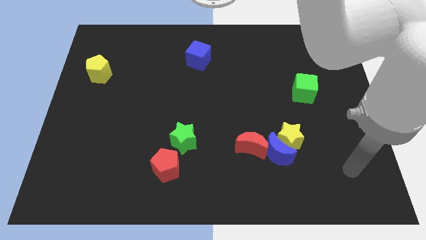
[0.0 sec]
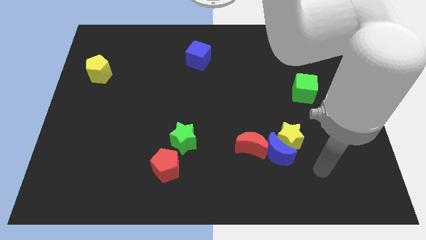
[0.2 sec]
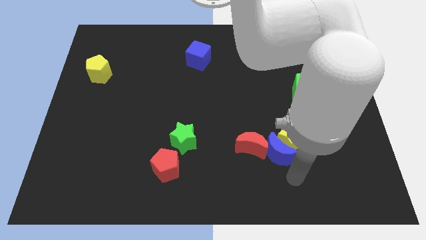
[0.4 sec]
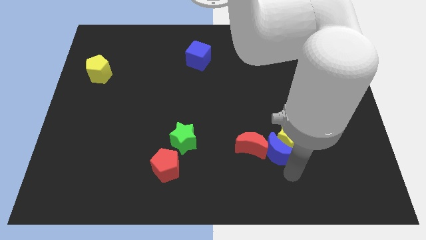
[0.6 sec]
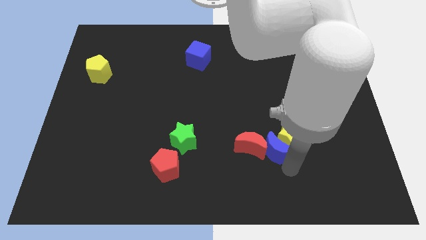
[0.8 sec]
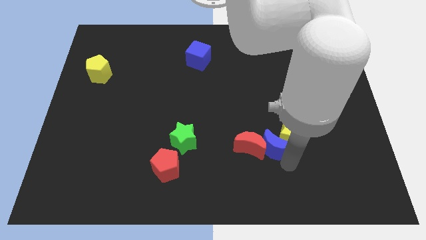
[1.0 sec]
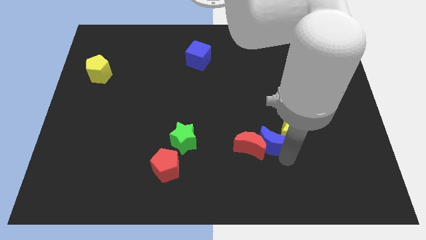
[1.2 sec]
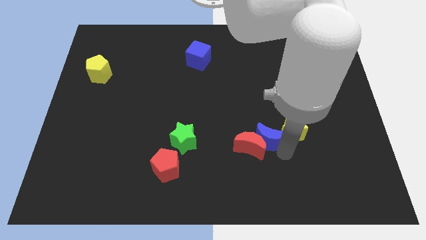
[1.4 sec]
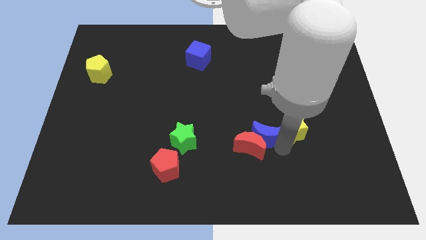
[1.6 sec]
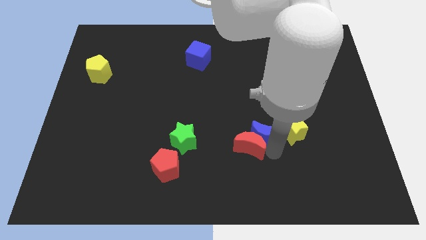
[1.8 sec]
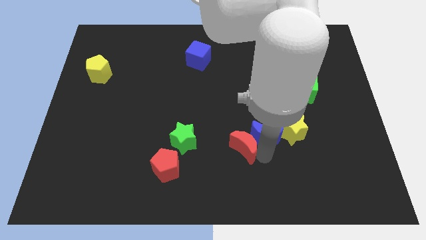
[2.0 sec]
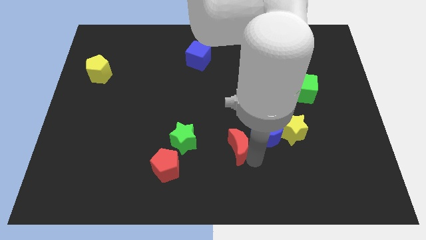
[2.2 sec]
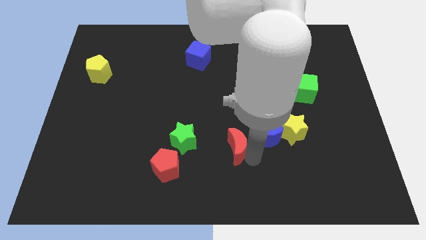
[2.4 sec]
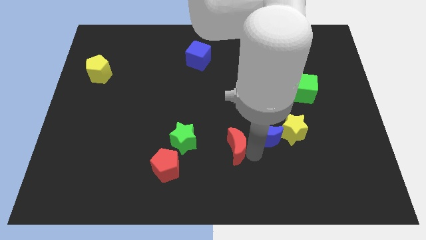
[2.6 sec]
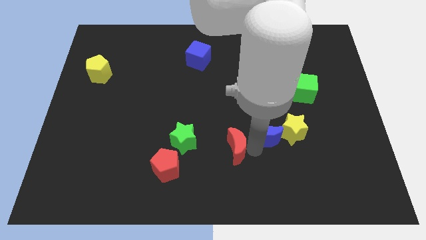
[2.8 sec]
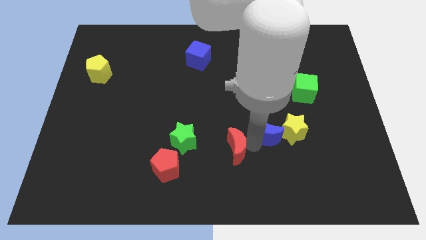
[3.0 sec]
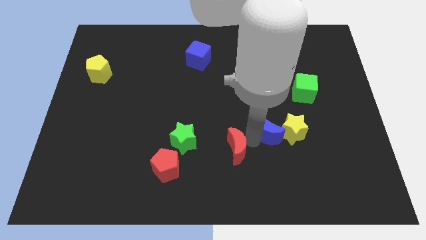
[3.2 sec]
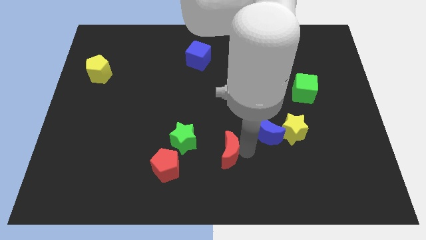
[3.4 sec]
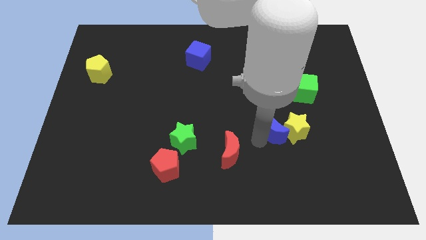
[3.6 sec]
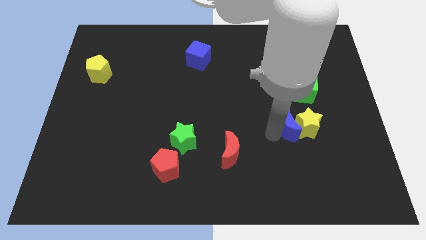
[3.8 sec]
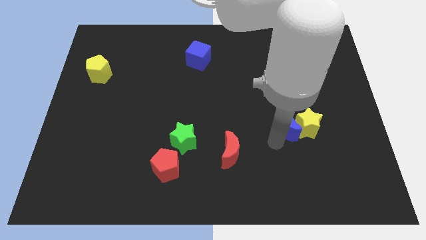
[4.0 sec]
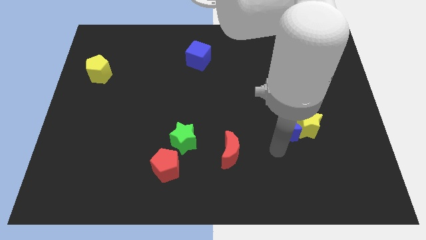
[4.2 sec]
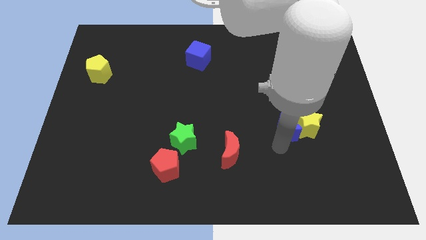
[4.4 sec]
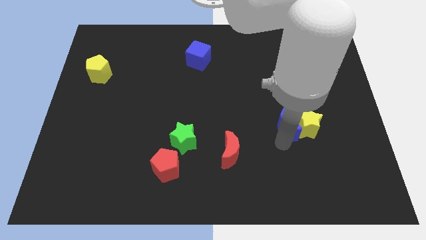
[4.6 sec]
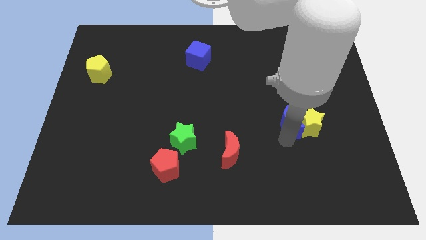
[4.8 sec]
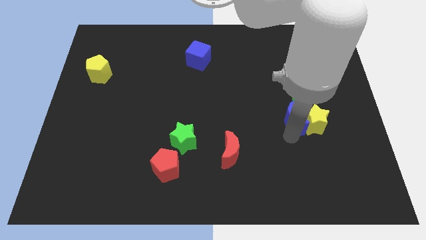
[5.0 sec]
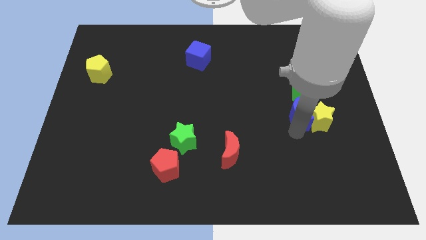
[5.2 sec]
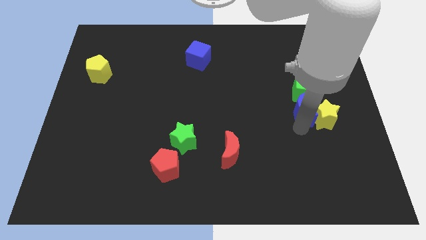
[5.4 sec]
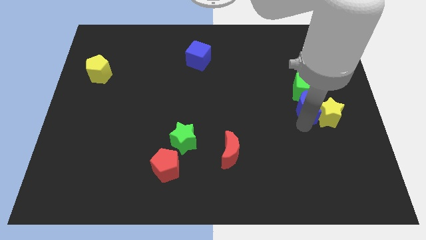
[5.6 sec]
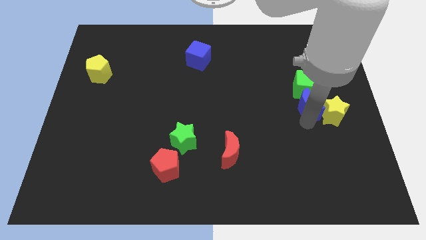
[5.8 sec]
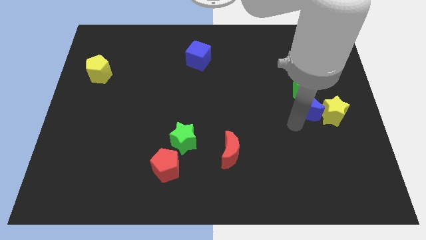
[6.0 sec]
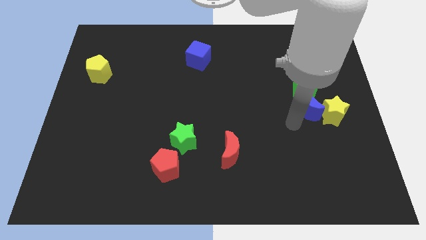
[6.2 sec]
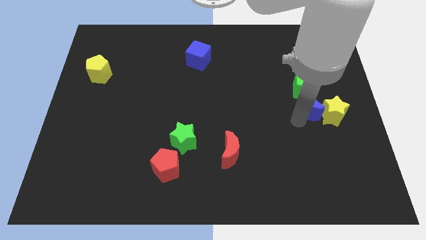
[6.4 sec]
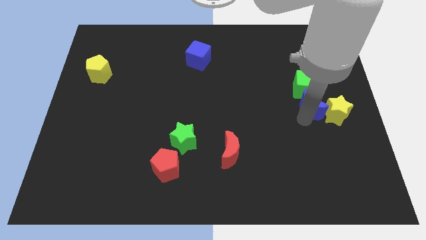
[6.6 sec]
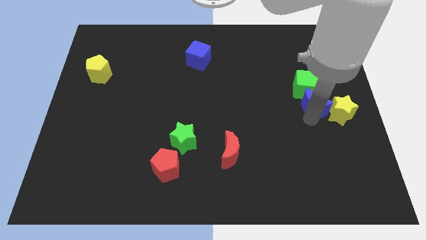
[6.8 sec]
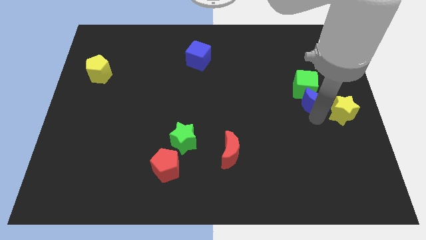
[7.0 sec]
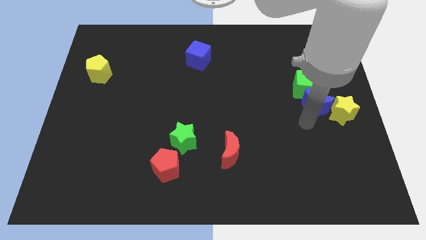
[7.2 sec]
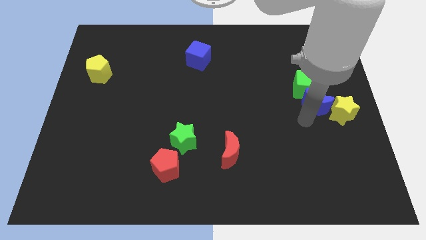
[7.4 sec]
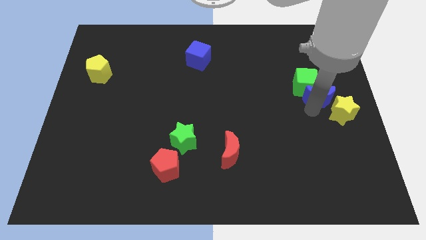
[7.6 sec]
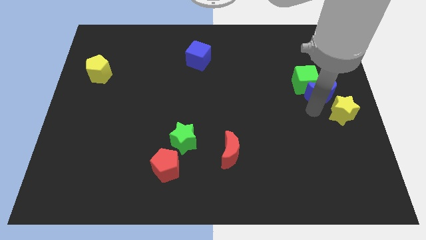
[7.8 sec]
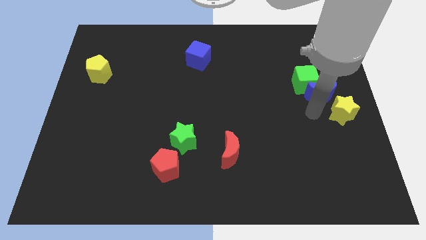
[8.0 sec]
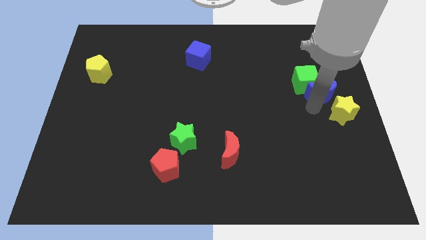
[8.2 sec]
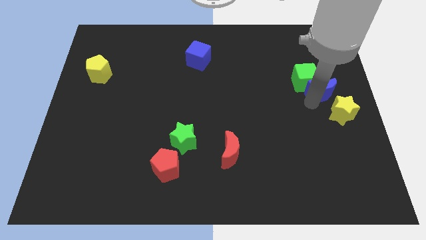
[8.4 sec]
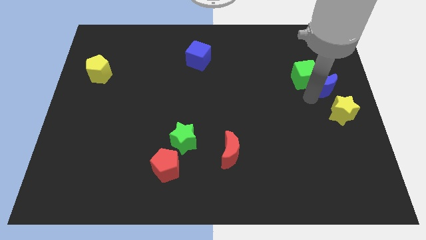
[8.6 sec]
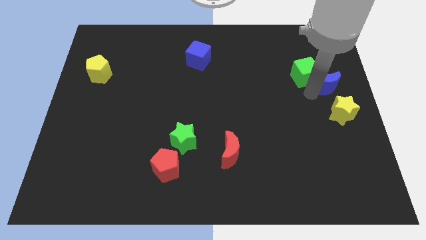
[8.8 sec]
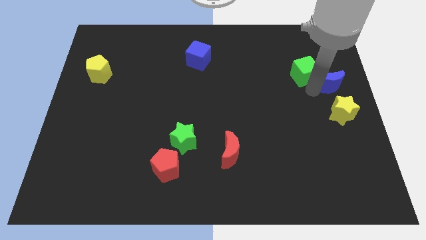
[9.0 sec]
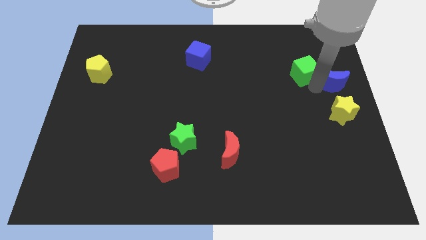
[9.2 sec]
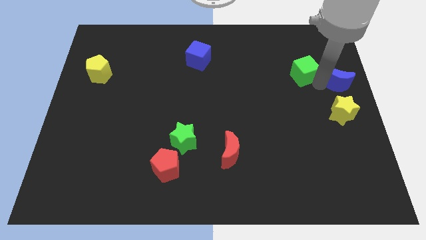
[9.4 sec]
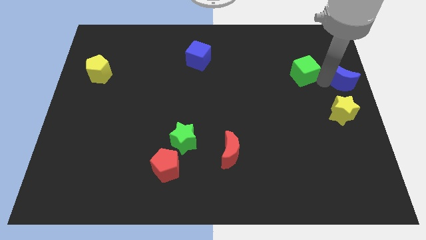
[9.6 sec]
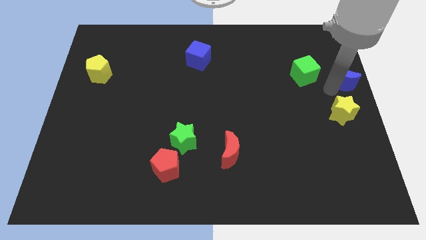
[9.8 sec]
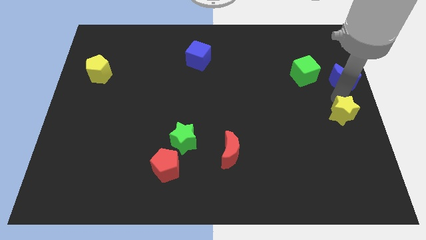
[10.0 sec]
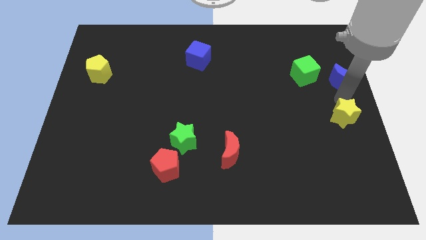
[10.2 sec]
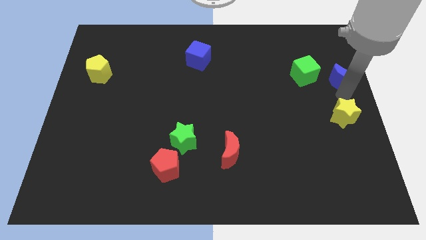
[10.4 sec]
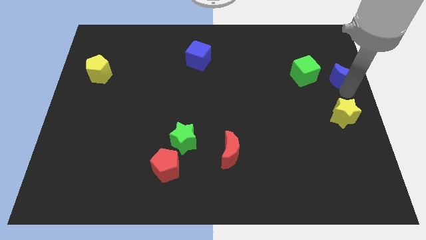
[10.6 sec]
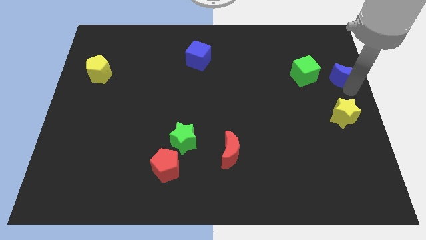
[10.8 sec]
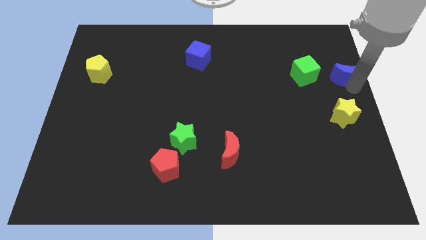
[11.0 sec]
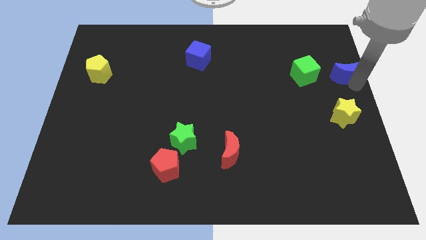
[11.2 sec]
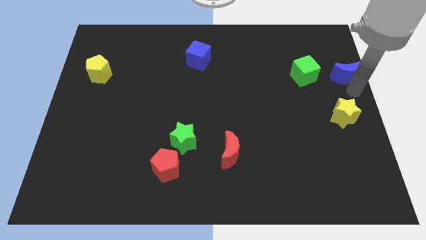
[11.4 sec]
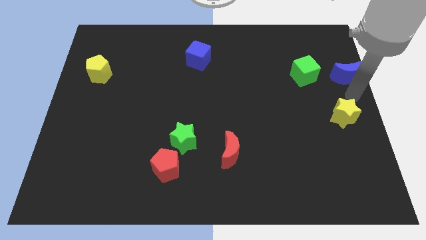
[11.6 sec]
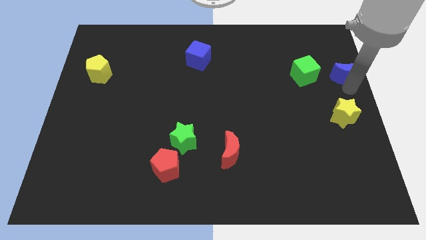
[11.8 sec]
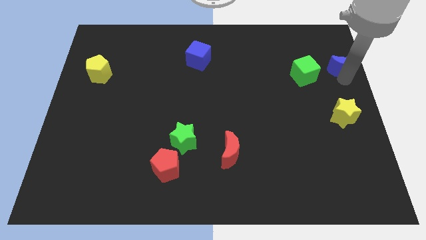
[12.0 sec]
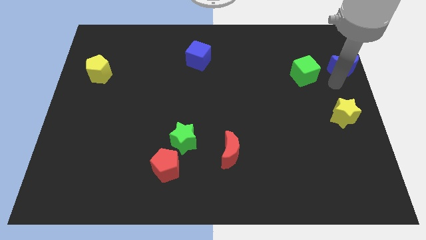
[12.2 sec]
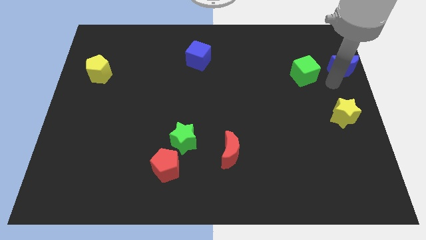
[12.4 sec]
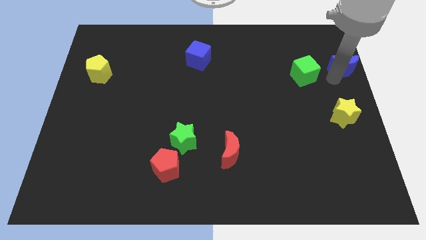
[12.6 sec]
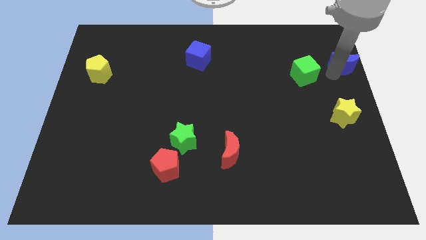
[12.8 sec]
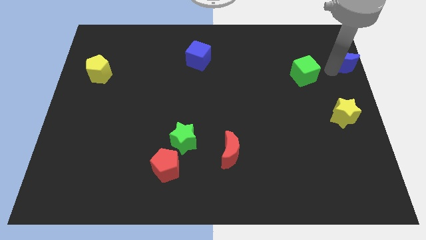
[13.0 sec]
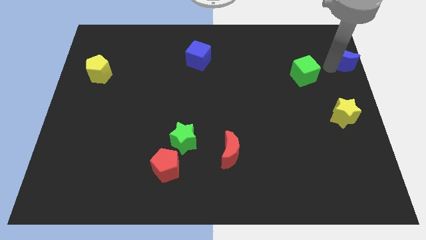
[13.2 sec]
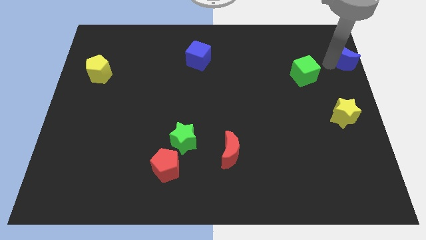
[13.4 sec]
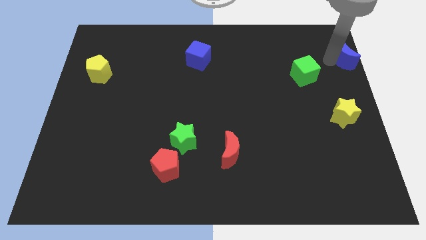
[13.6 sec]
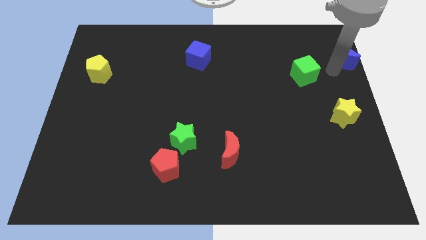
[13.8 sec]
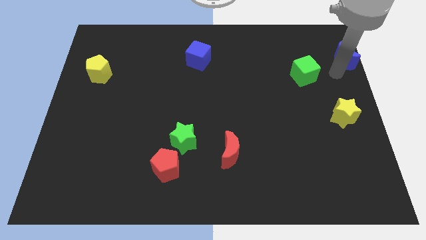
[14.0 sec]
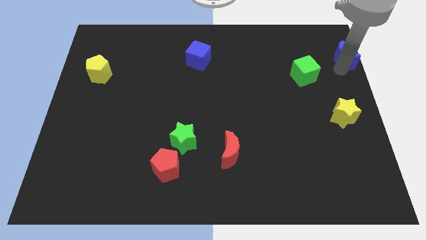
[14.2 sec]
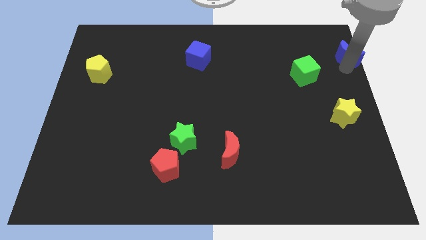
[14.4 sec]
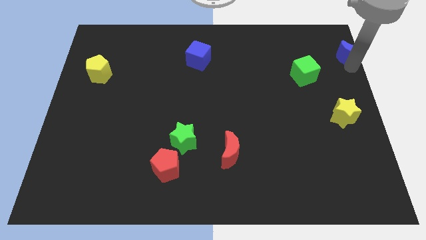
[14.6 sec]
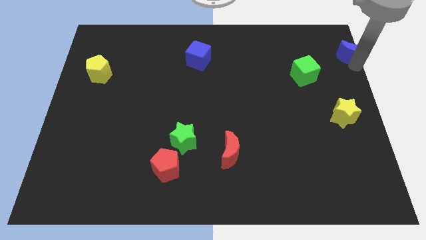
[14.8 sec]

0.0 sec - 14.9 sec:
move the blue moon to the top right of the board
